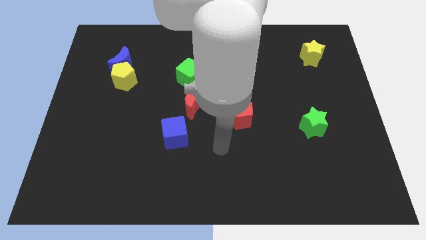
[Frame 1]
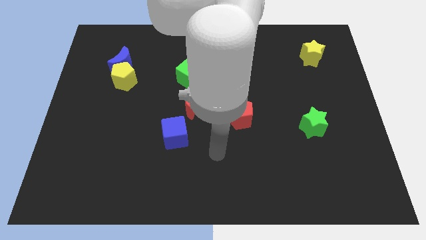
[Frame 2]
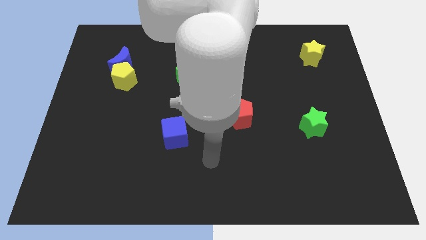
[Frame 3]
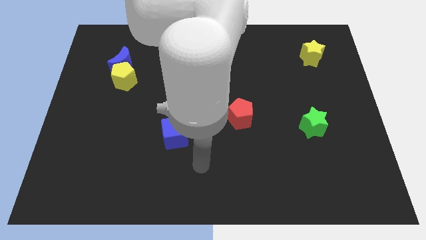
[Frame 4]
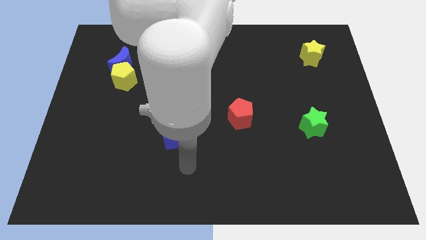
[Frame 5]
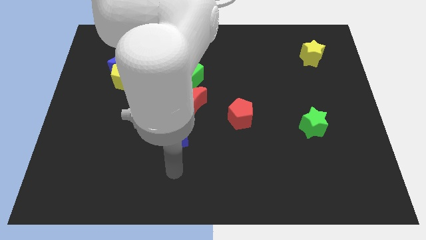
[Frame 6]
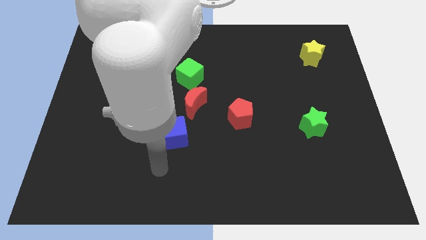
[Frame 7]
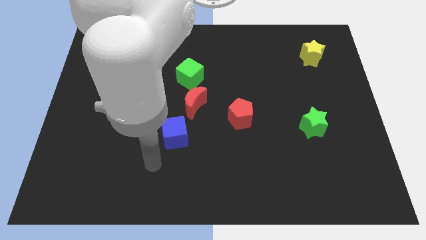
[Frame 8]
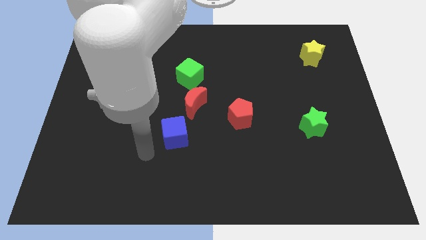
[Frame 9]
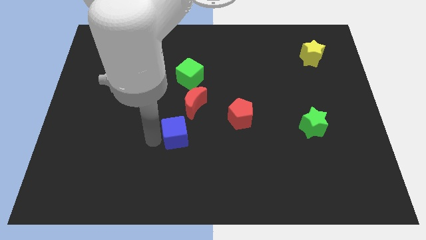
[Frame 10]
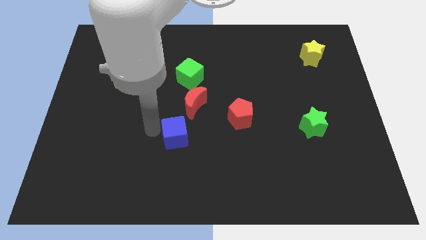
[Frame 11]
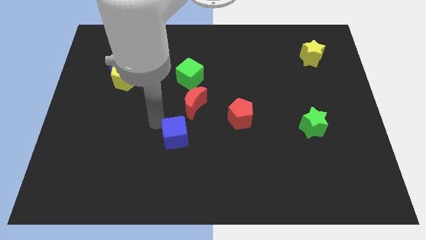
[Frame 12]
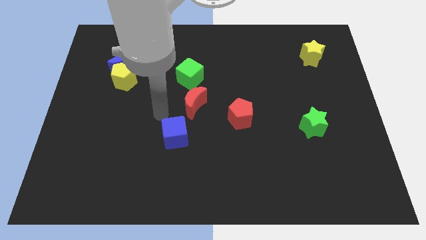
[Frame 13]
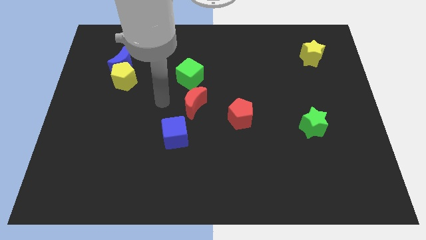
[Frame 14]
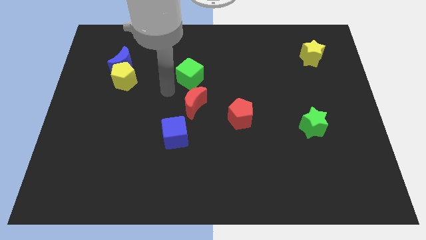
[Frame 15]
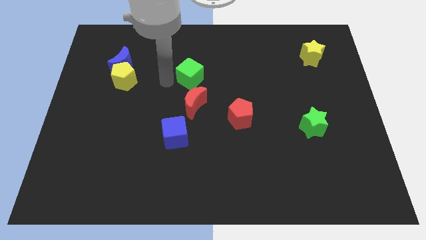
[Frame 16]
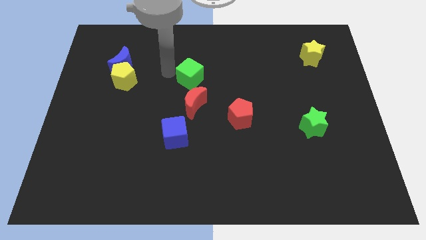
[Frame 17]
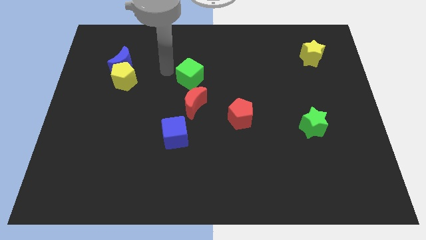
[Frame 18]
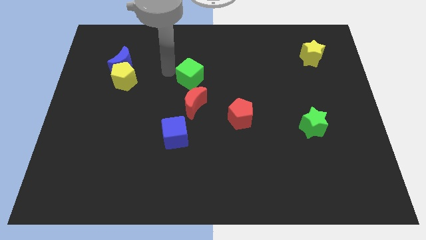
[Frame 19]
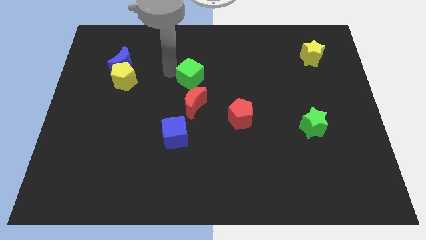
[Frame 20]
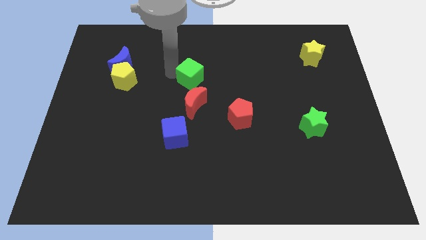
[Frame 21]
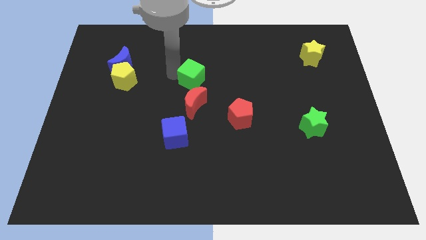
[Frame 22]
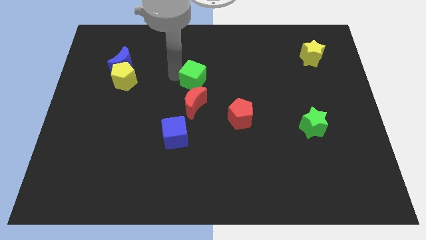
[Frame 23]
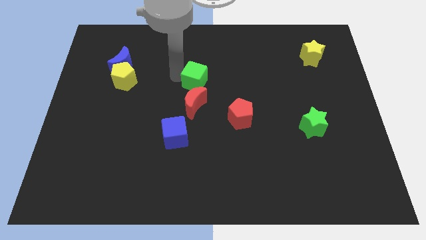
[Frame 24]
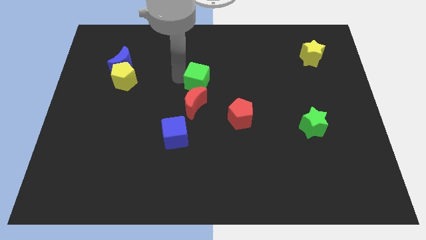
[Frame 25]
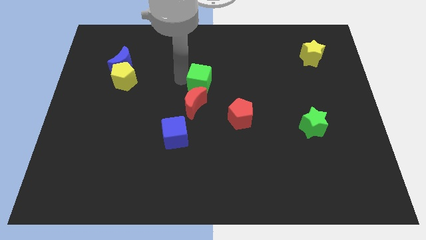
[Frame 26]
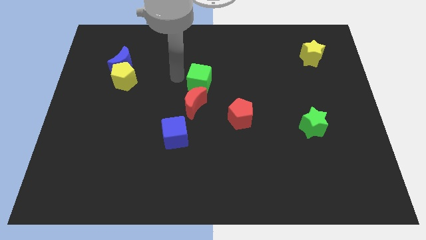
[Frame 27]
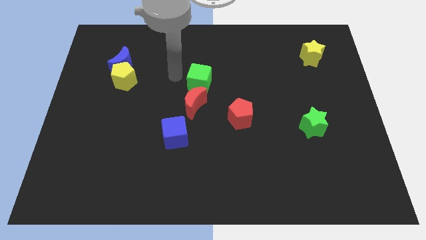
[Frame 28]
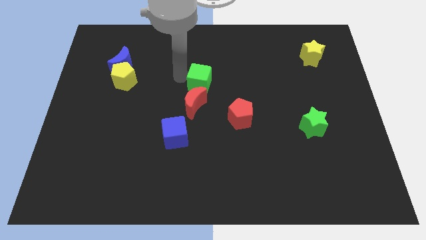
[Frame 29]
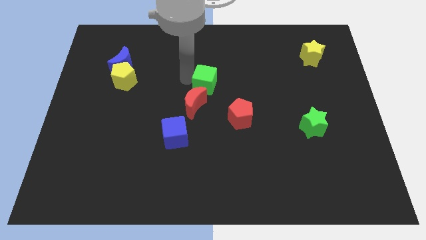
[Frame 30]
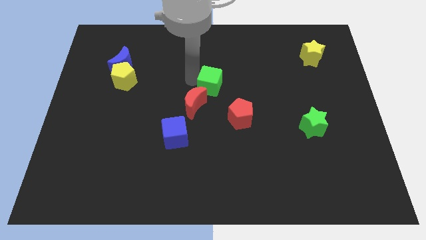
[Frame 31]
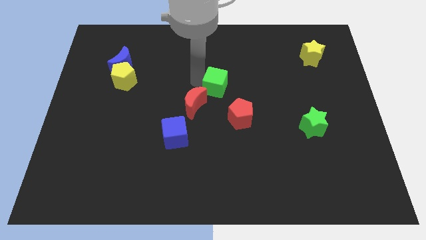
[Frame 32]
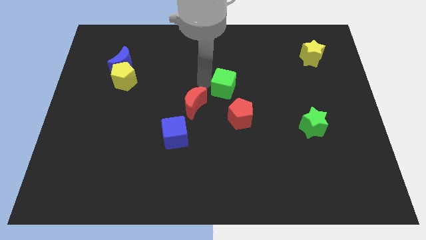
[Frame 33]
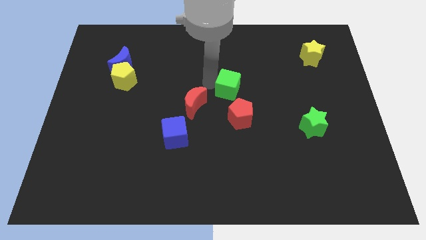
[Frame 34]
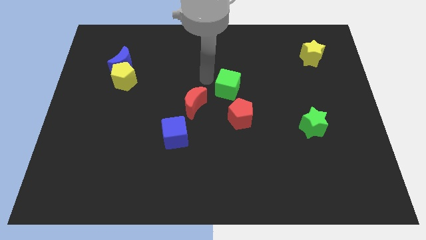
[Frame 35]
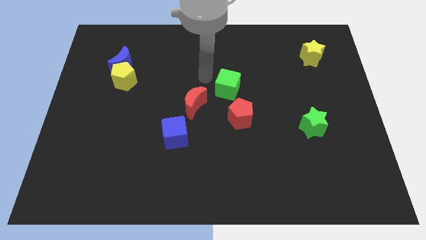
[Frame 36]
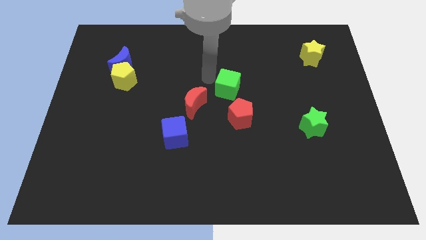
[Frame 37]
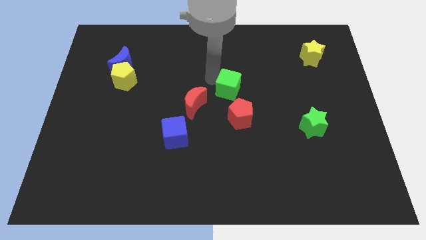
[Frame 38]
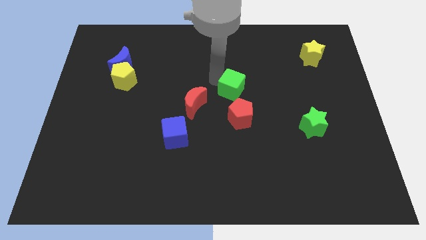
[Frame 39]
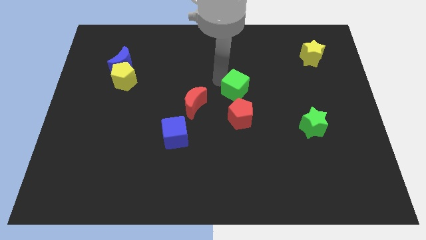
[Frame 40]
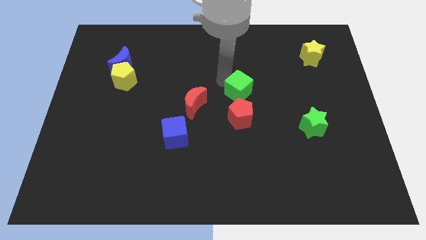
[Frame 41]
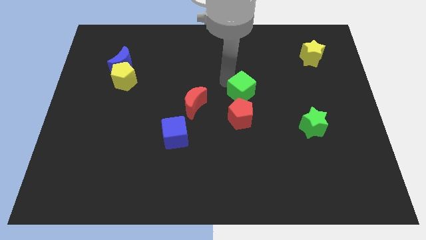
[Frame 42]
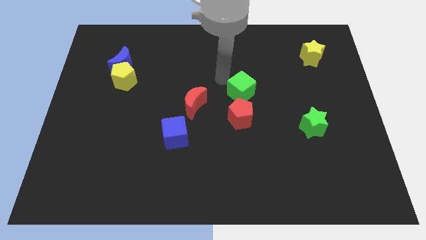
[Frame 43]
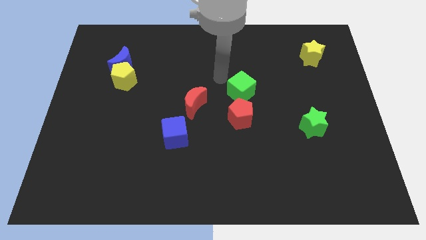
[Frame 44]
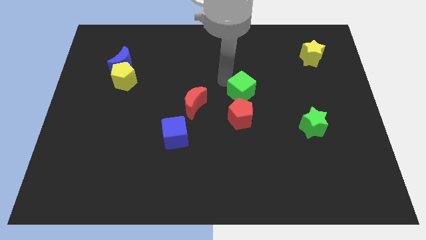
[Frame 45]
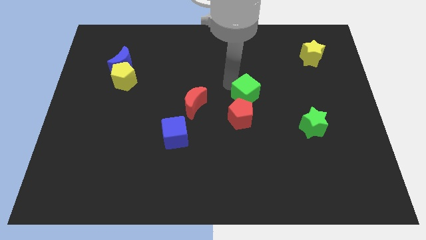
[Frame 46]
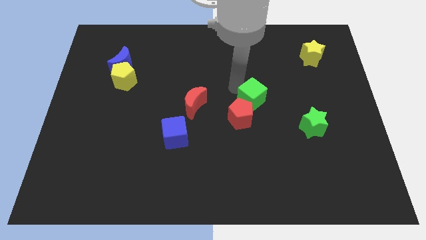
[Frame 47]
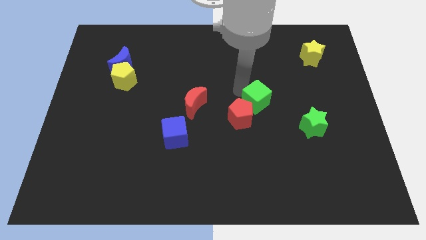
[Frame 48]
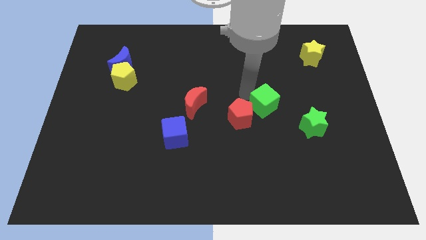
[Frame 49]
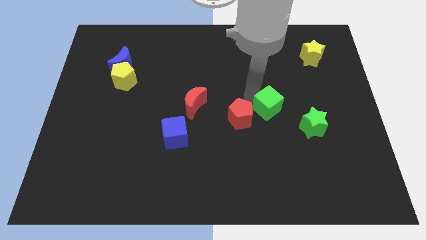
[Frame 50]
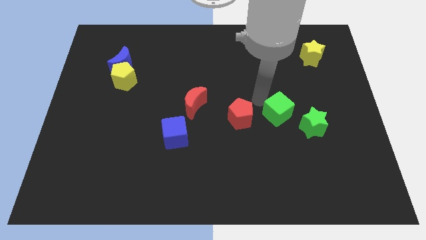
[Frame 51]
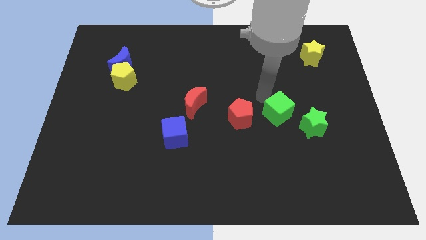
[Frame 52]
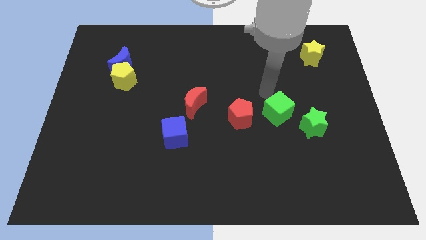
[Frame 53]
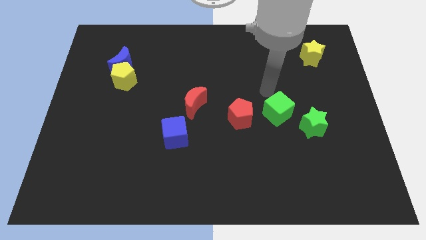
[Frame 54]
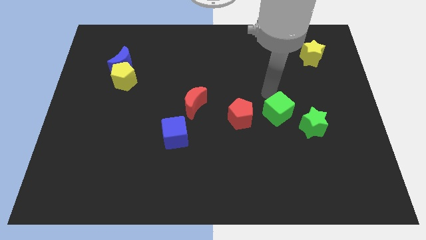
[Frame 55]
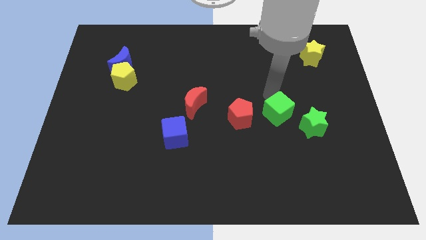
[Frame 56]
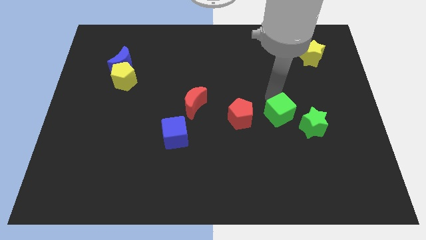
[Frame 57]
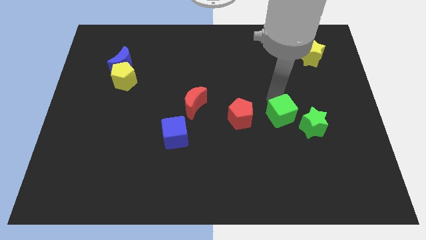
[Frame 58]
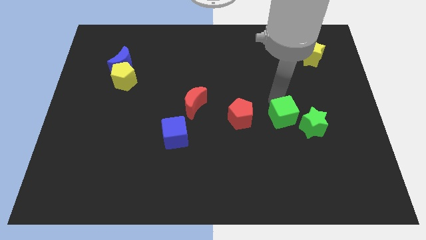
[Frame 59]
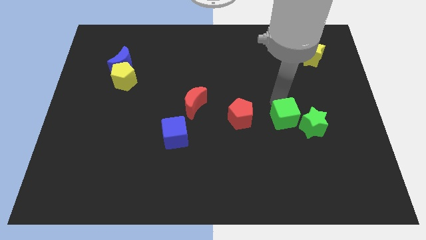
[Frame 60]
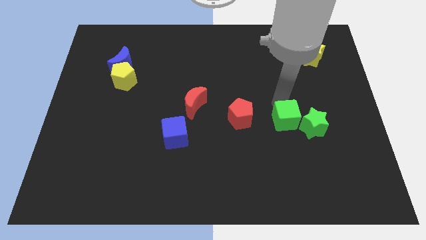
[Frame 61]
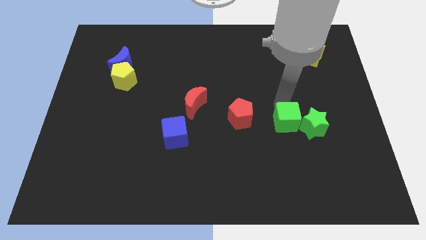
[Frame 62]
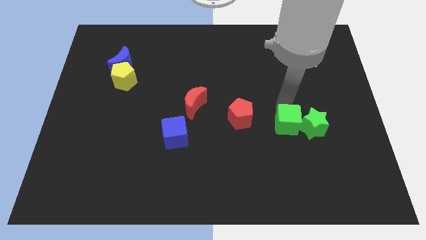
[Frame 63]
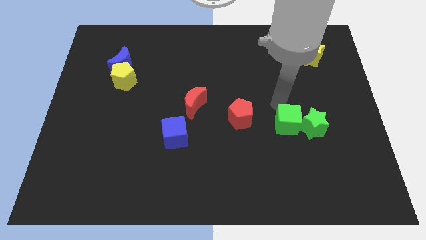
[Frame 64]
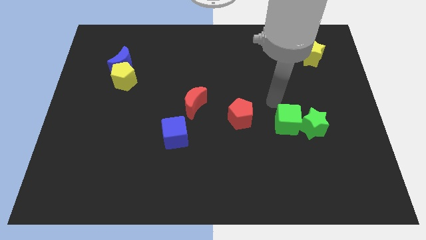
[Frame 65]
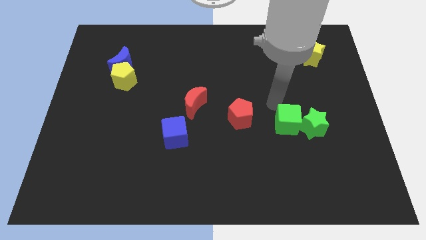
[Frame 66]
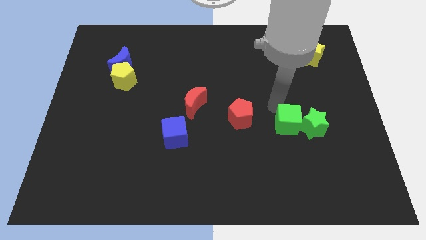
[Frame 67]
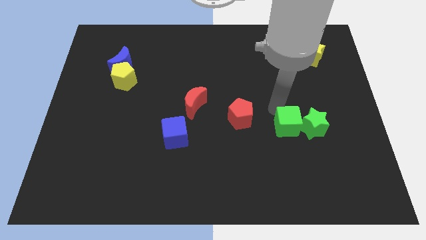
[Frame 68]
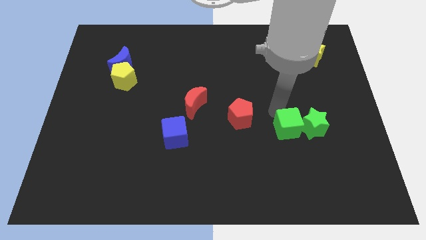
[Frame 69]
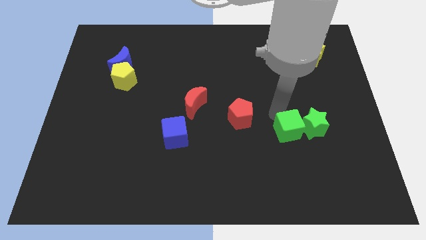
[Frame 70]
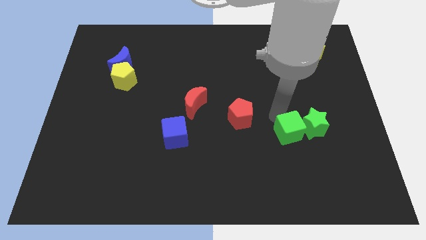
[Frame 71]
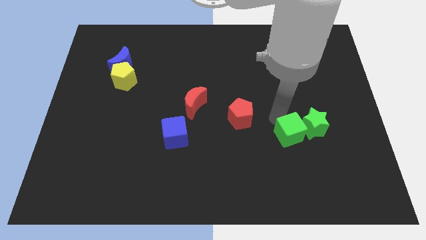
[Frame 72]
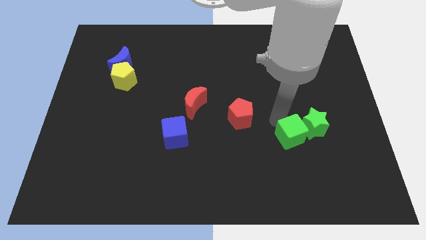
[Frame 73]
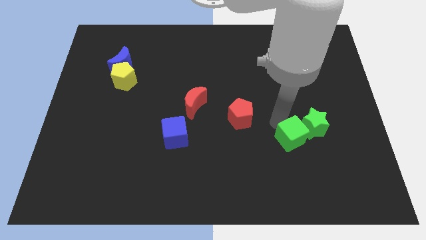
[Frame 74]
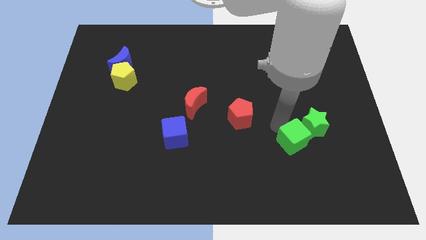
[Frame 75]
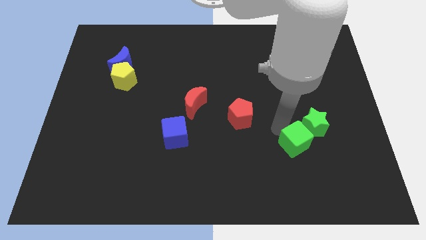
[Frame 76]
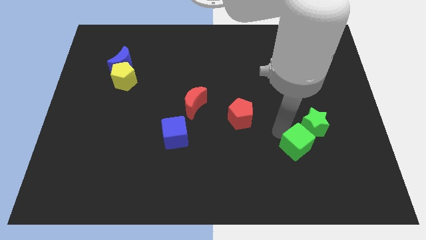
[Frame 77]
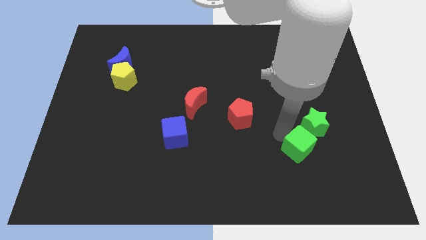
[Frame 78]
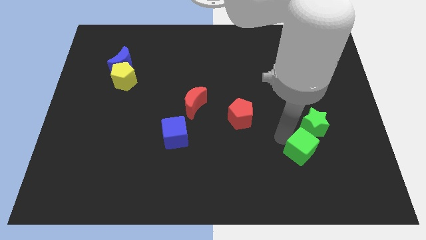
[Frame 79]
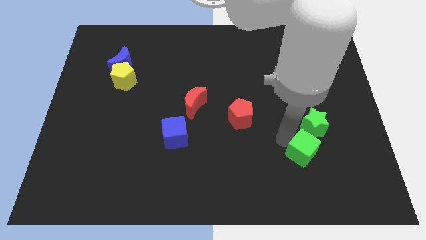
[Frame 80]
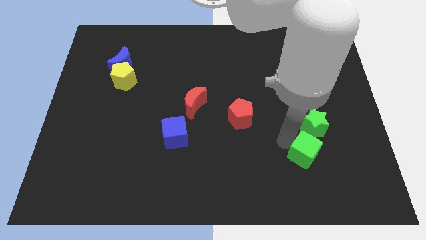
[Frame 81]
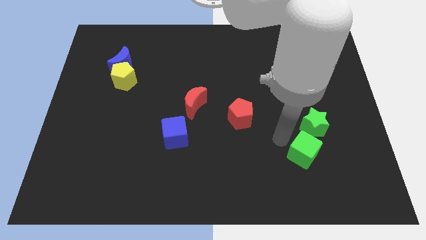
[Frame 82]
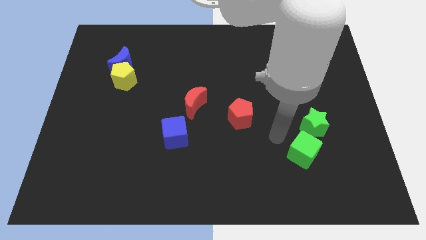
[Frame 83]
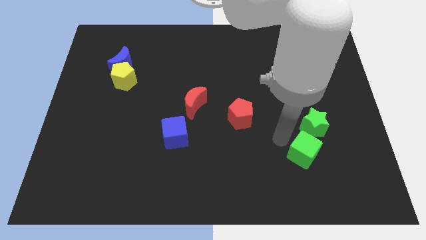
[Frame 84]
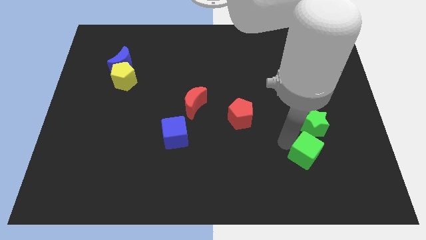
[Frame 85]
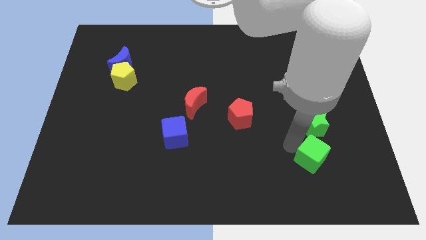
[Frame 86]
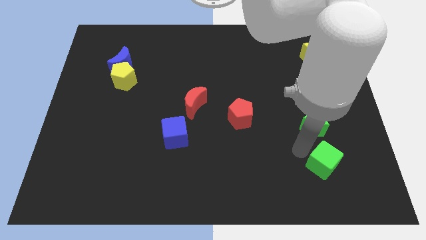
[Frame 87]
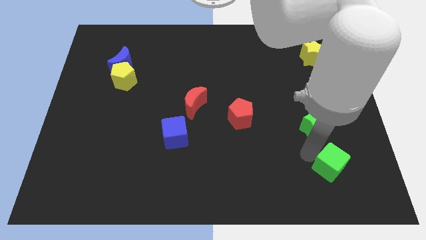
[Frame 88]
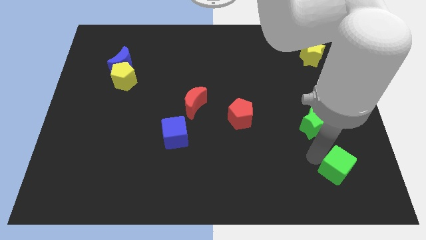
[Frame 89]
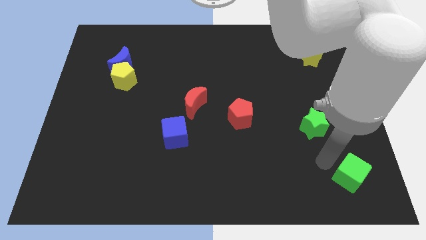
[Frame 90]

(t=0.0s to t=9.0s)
put the green cube to the bottom right
